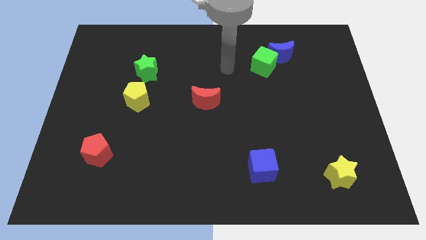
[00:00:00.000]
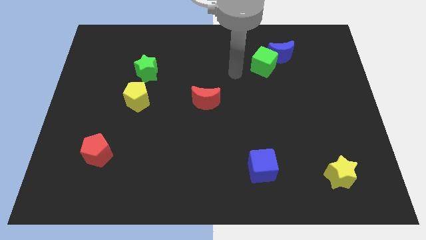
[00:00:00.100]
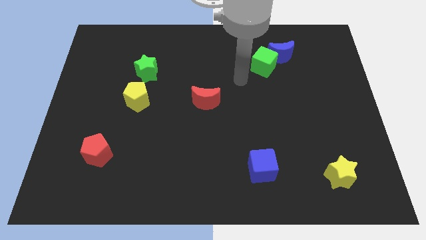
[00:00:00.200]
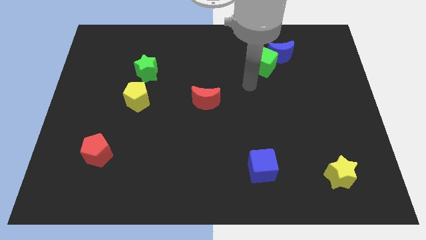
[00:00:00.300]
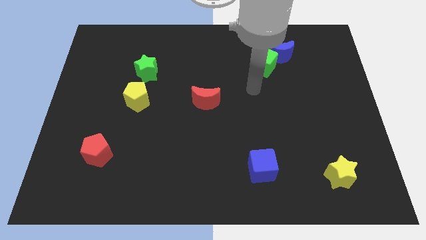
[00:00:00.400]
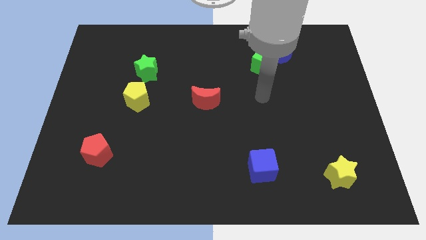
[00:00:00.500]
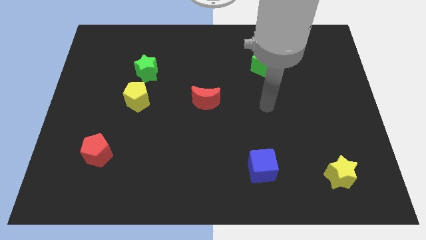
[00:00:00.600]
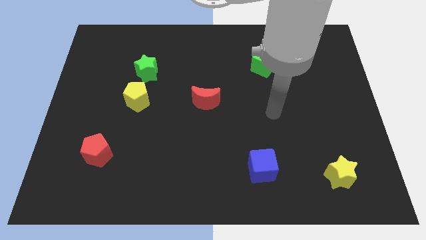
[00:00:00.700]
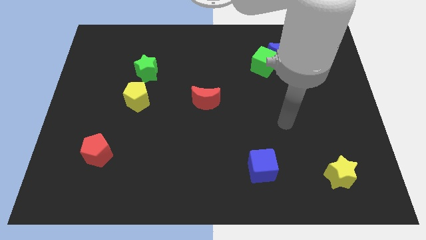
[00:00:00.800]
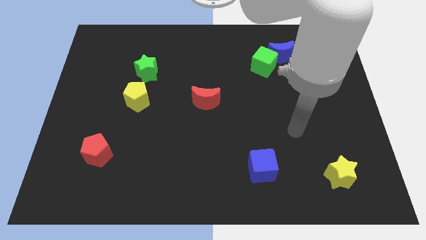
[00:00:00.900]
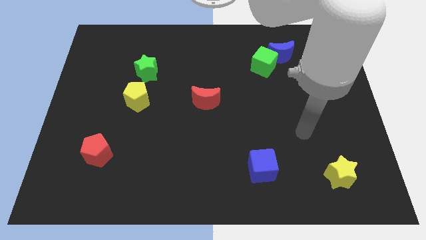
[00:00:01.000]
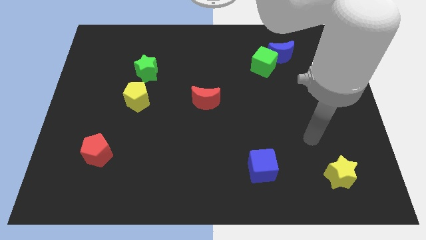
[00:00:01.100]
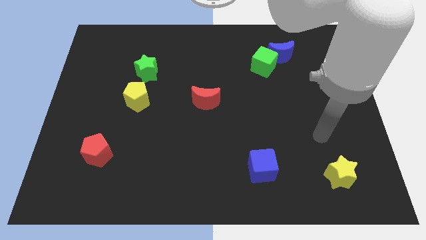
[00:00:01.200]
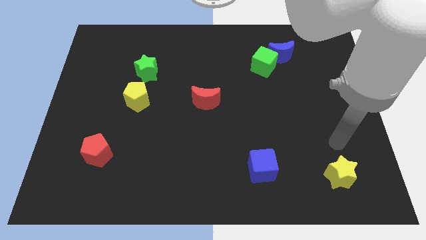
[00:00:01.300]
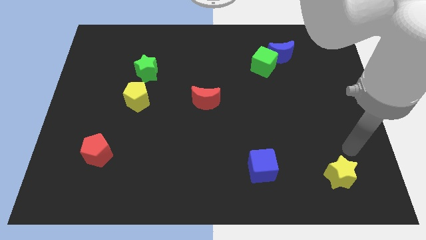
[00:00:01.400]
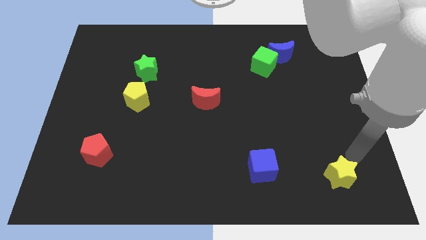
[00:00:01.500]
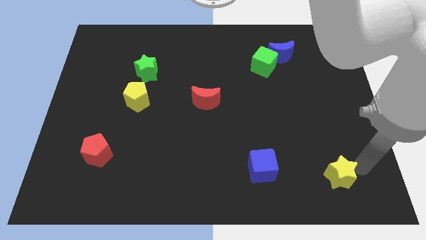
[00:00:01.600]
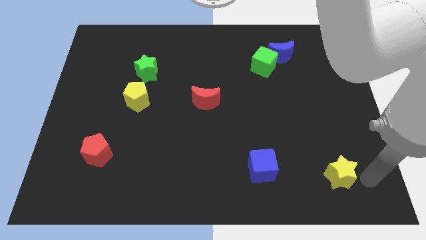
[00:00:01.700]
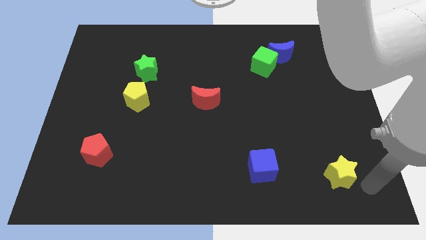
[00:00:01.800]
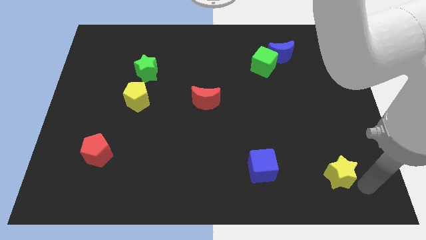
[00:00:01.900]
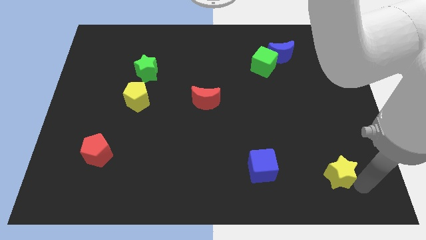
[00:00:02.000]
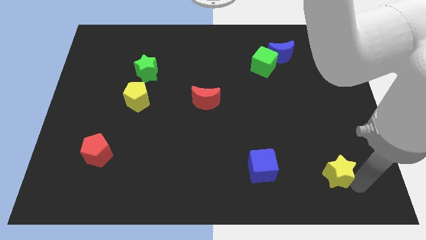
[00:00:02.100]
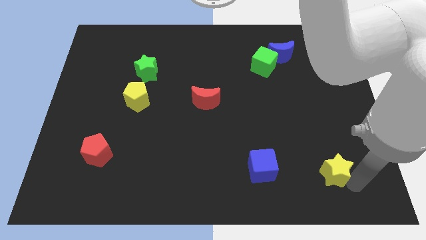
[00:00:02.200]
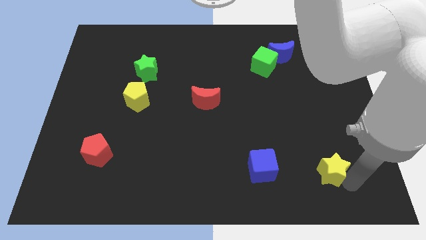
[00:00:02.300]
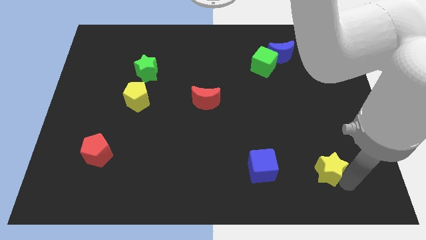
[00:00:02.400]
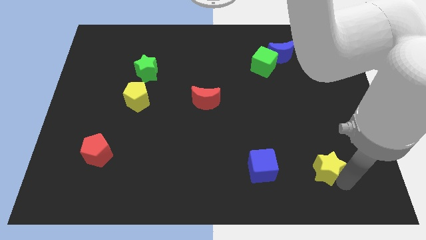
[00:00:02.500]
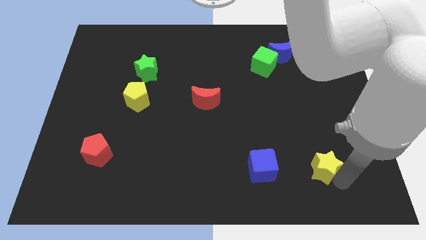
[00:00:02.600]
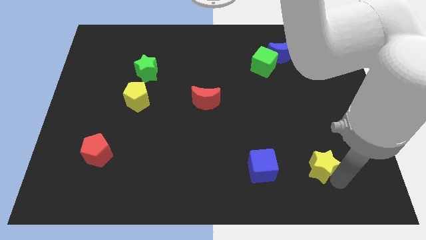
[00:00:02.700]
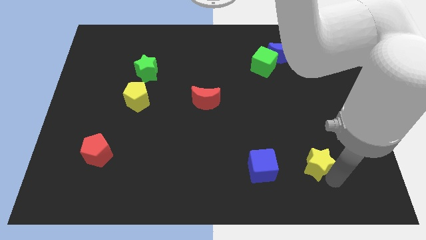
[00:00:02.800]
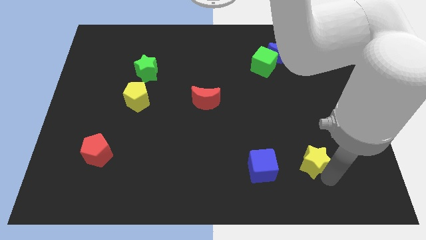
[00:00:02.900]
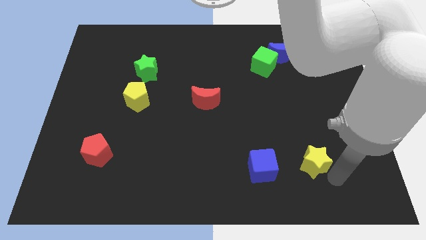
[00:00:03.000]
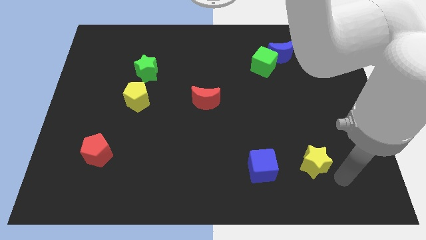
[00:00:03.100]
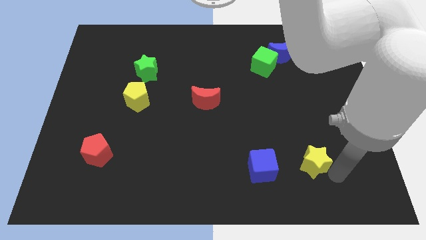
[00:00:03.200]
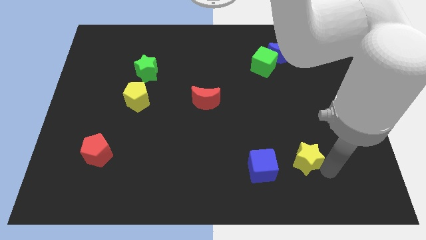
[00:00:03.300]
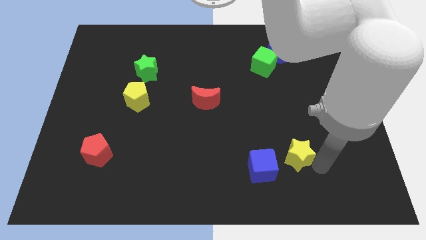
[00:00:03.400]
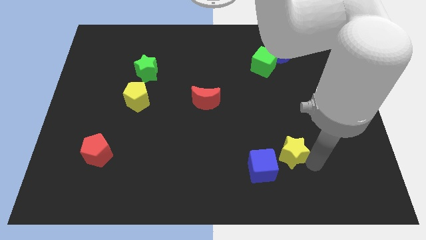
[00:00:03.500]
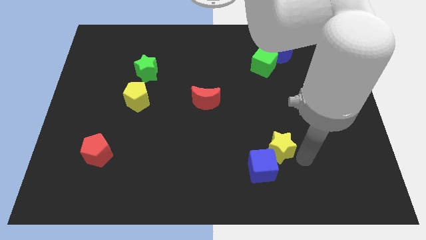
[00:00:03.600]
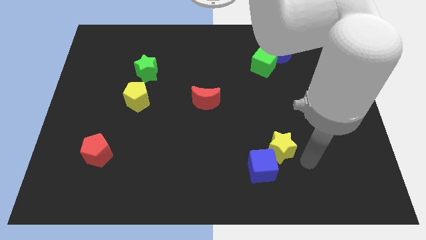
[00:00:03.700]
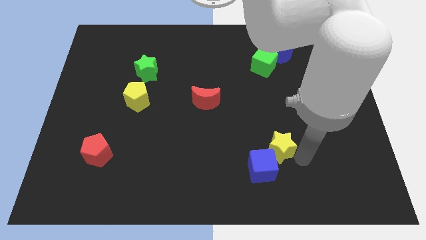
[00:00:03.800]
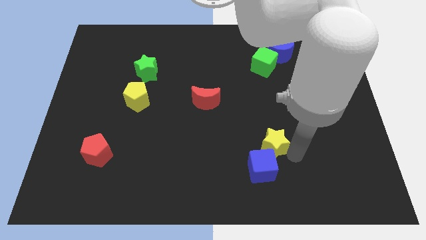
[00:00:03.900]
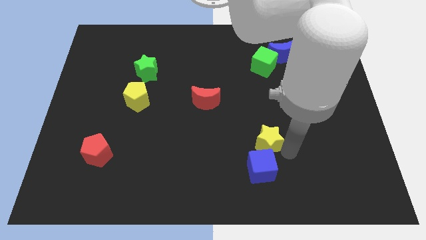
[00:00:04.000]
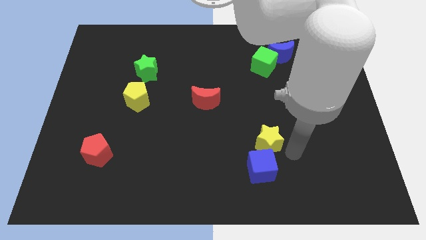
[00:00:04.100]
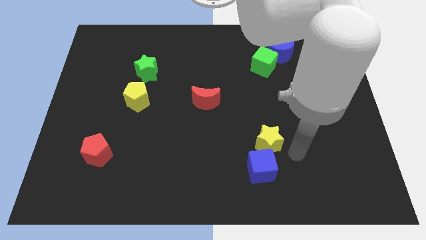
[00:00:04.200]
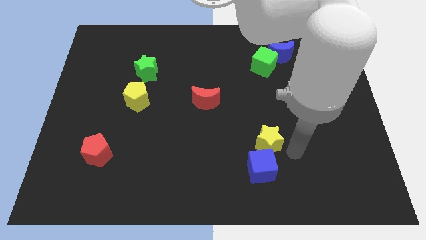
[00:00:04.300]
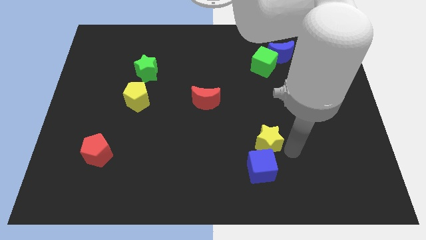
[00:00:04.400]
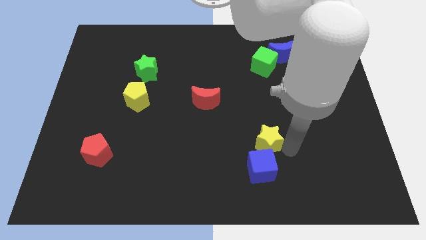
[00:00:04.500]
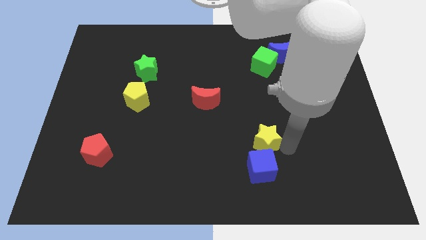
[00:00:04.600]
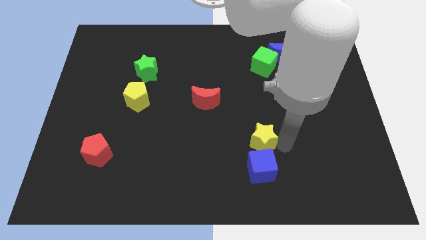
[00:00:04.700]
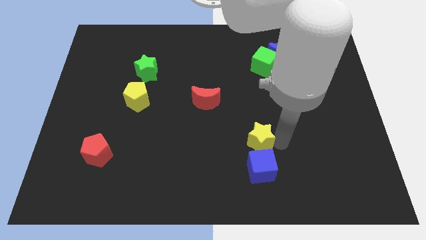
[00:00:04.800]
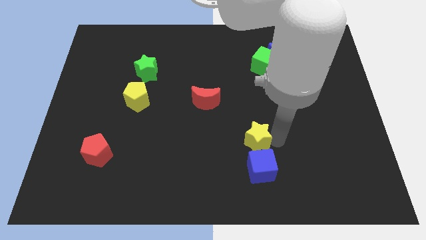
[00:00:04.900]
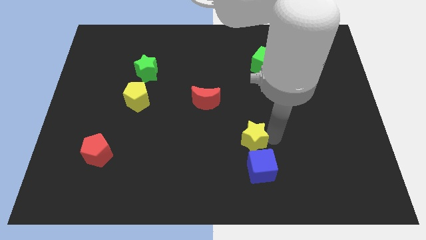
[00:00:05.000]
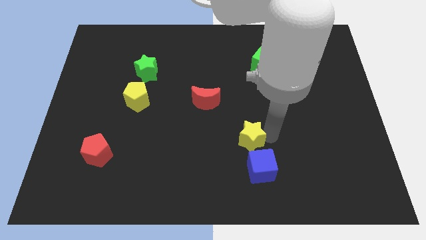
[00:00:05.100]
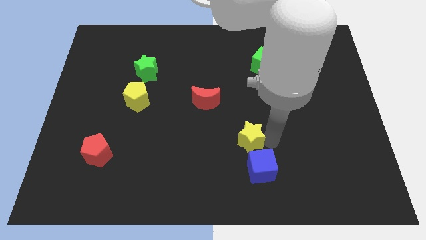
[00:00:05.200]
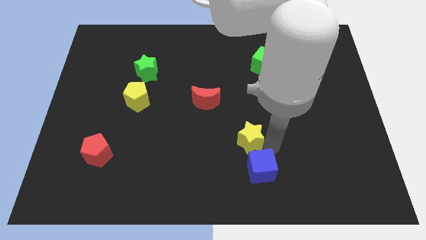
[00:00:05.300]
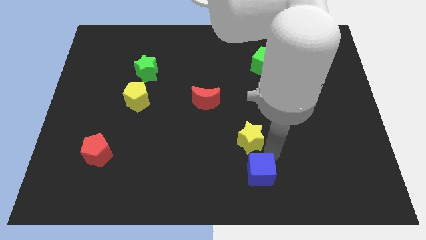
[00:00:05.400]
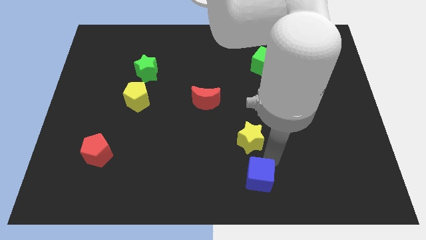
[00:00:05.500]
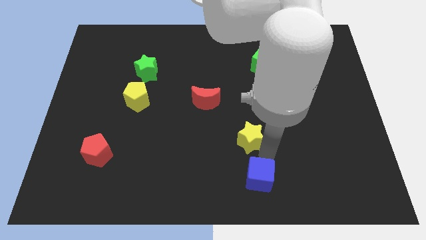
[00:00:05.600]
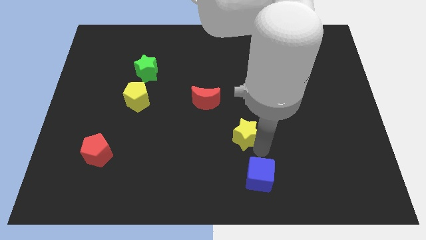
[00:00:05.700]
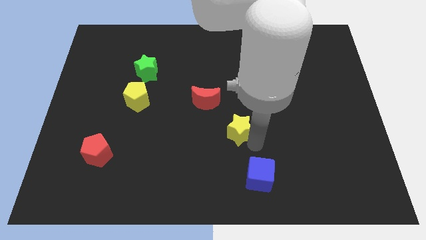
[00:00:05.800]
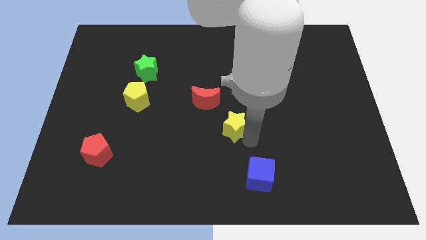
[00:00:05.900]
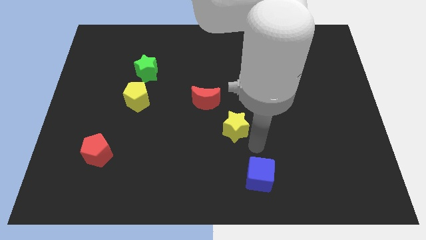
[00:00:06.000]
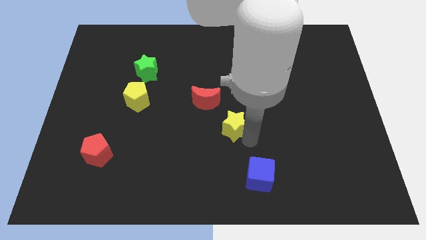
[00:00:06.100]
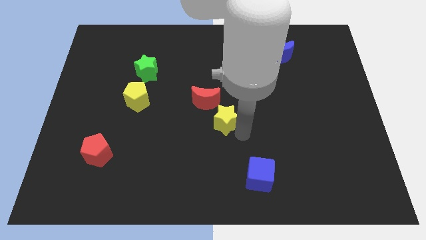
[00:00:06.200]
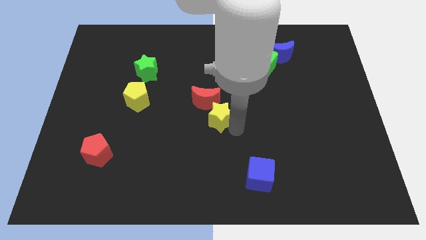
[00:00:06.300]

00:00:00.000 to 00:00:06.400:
slide the yellow star close to the red moon

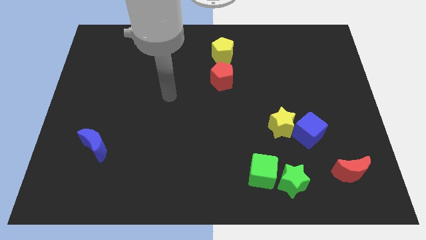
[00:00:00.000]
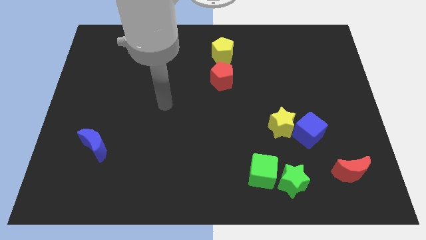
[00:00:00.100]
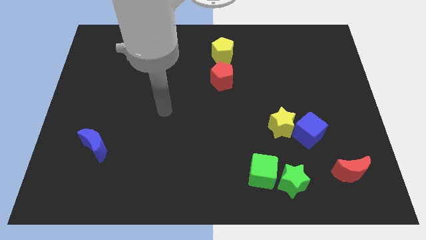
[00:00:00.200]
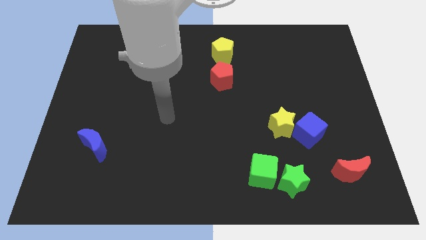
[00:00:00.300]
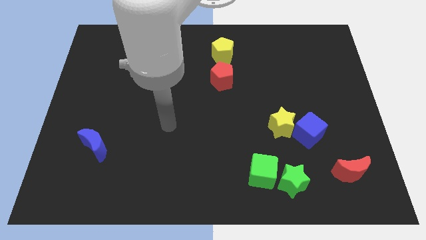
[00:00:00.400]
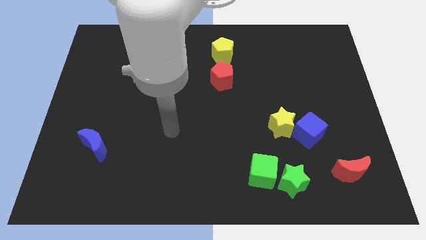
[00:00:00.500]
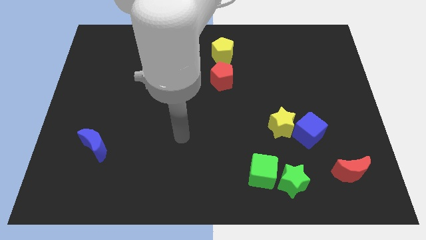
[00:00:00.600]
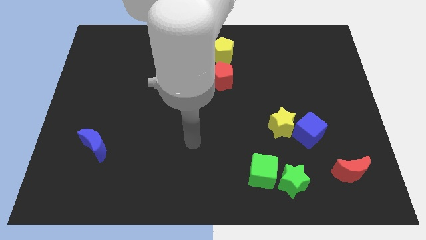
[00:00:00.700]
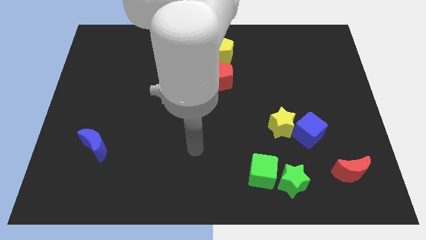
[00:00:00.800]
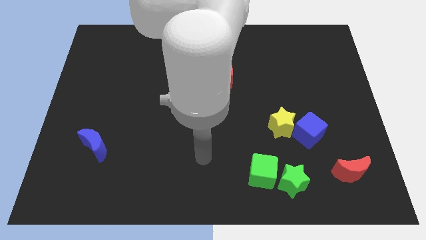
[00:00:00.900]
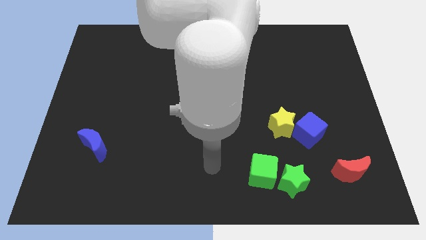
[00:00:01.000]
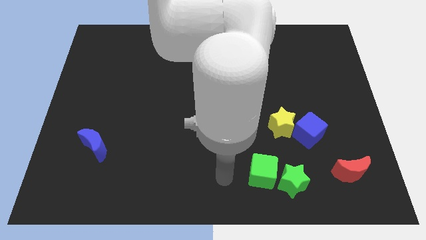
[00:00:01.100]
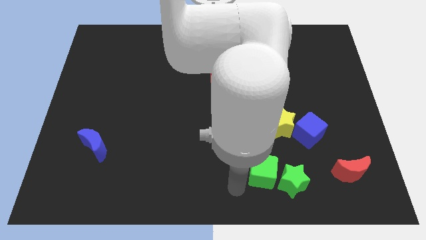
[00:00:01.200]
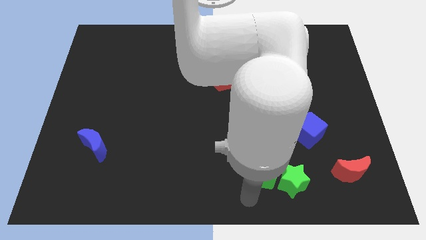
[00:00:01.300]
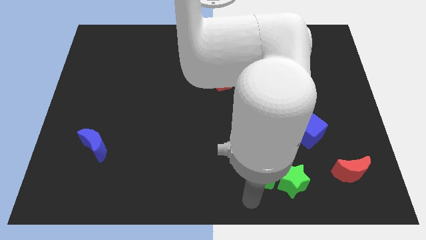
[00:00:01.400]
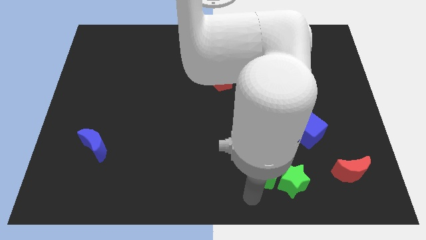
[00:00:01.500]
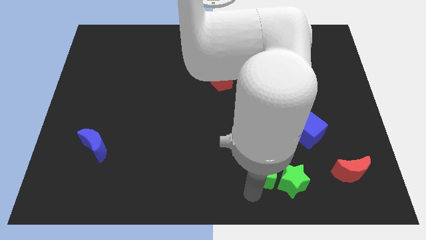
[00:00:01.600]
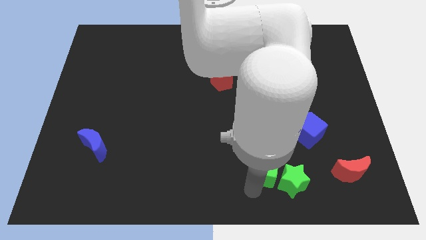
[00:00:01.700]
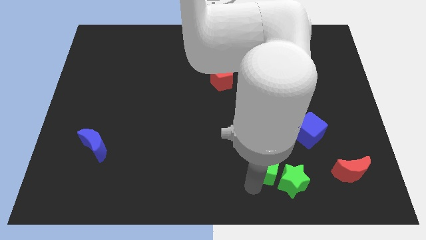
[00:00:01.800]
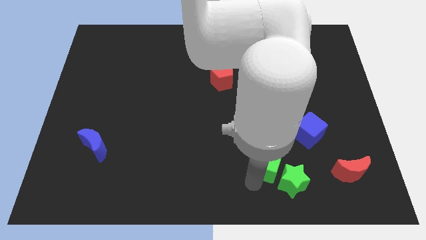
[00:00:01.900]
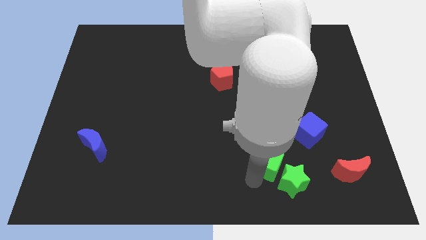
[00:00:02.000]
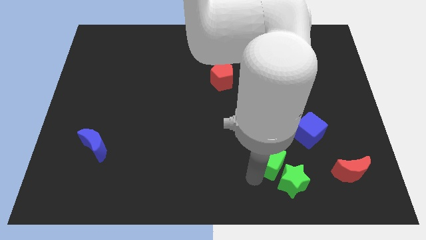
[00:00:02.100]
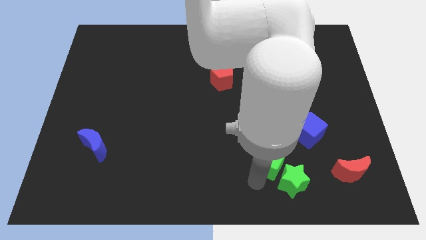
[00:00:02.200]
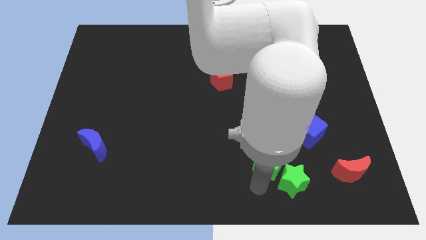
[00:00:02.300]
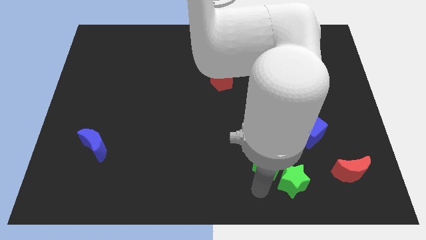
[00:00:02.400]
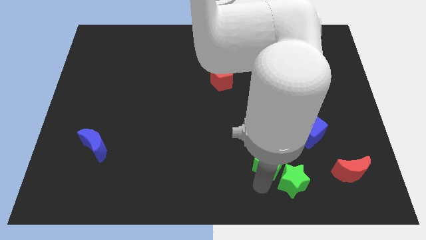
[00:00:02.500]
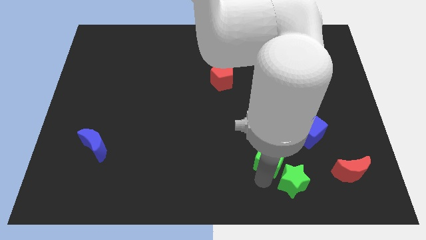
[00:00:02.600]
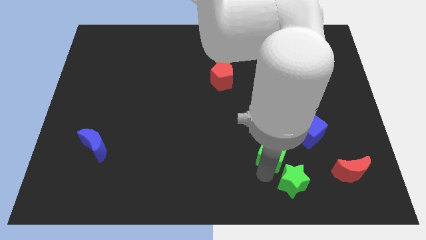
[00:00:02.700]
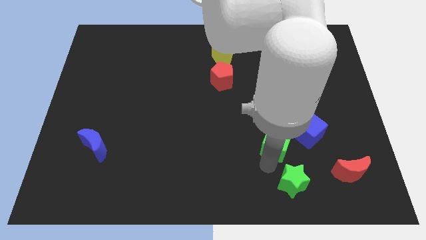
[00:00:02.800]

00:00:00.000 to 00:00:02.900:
put the green cube next to the yellow star
